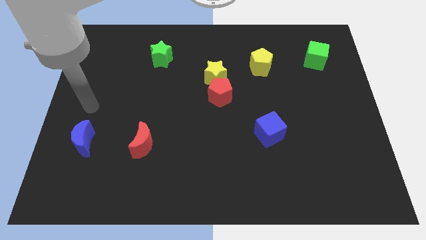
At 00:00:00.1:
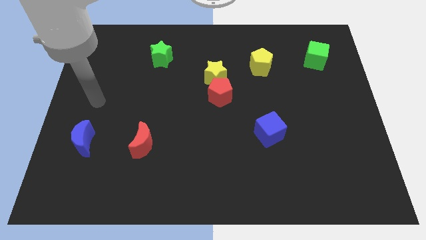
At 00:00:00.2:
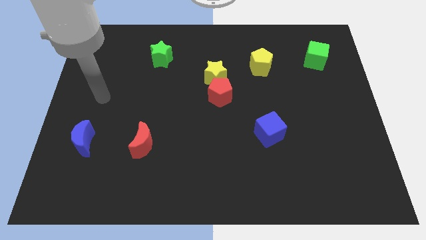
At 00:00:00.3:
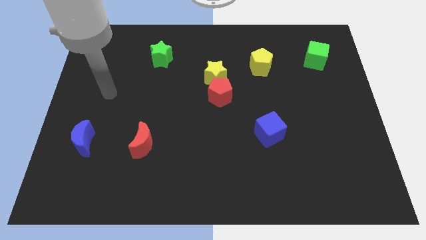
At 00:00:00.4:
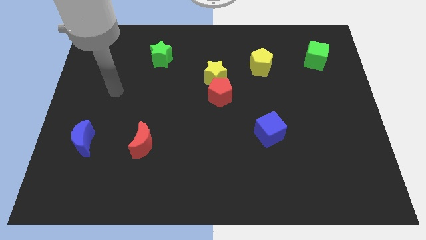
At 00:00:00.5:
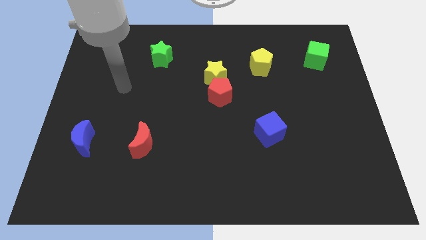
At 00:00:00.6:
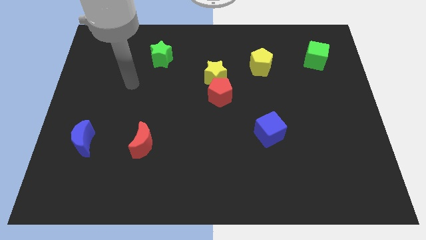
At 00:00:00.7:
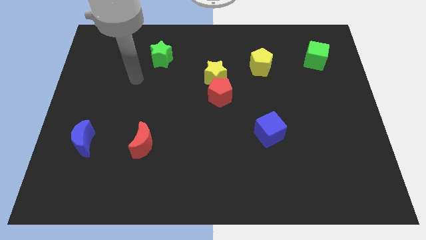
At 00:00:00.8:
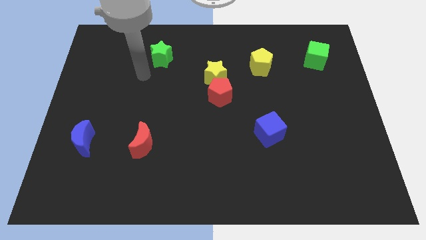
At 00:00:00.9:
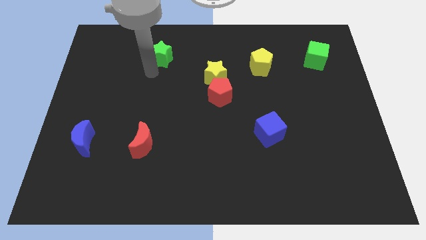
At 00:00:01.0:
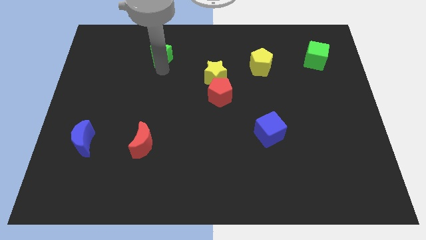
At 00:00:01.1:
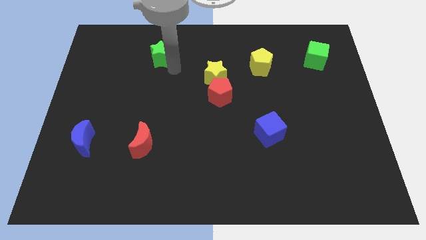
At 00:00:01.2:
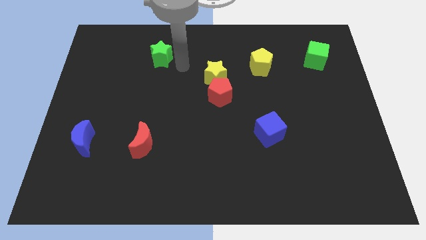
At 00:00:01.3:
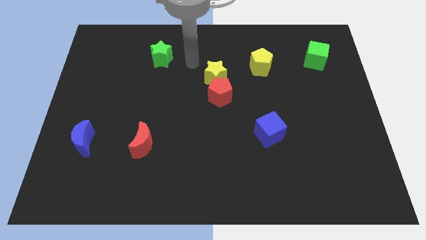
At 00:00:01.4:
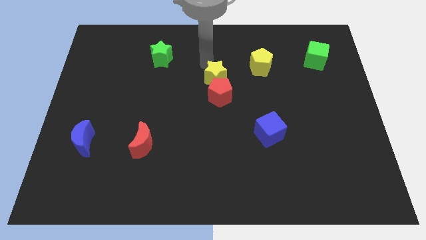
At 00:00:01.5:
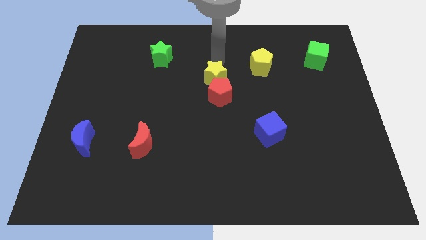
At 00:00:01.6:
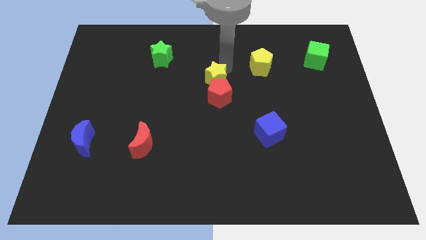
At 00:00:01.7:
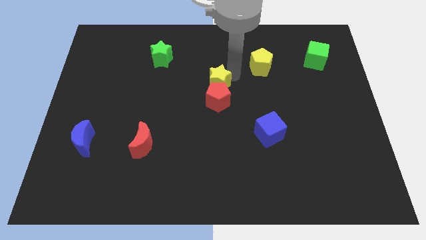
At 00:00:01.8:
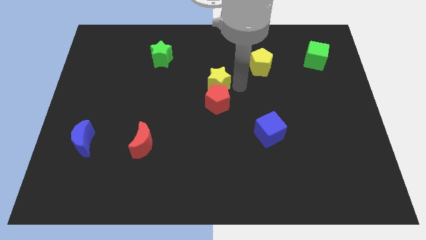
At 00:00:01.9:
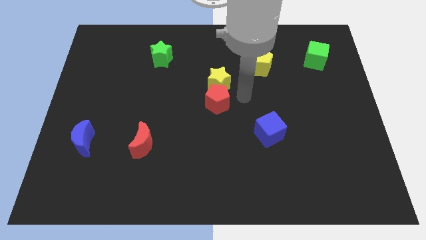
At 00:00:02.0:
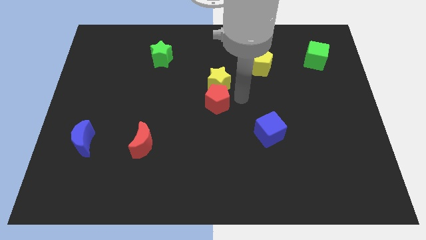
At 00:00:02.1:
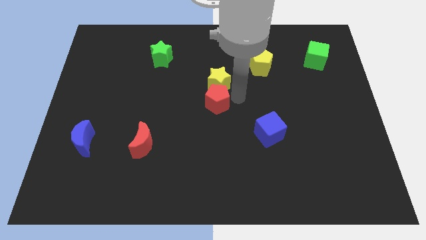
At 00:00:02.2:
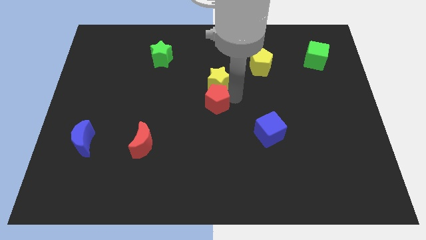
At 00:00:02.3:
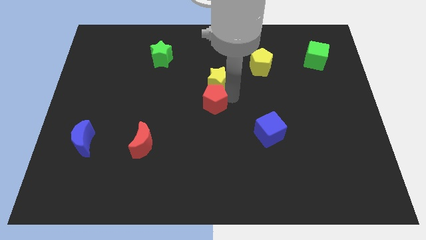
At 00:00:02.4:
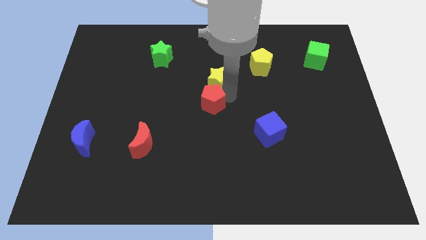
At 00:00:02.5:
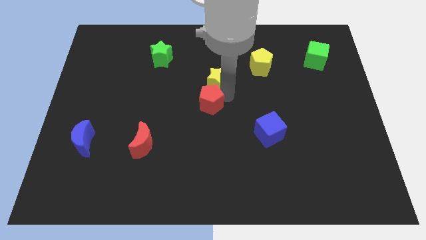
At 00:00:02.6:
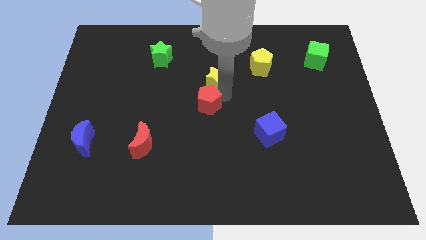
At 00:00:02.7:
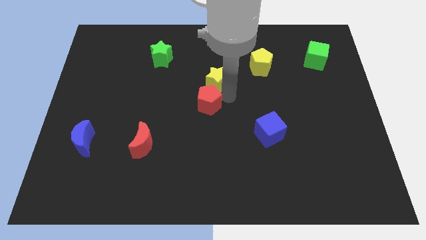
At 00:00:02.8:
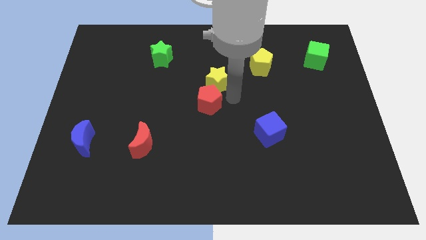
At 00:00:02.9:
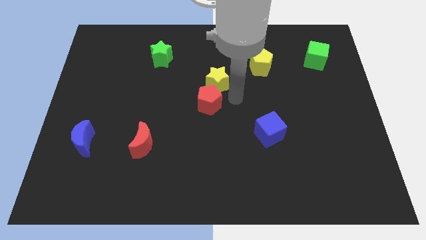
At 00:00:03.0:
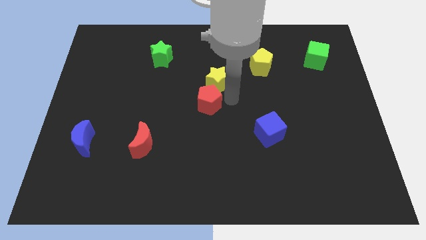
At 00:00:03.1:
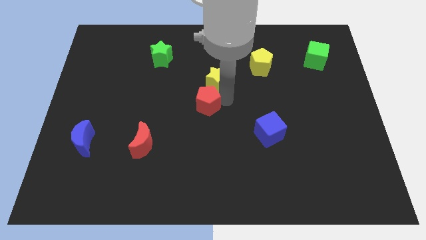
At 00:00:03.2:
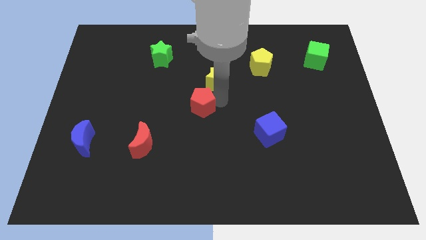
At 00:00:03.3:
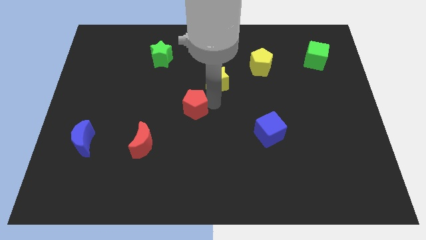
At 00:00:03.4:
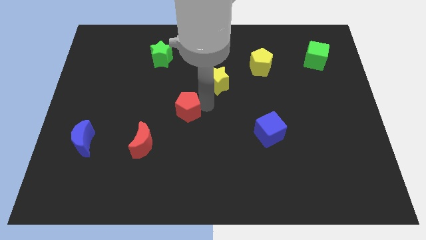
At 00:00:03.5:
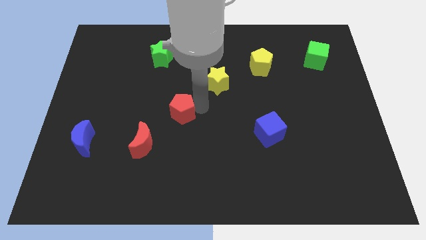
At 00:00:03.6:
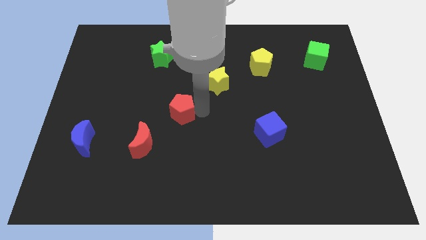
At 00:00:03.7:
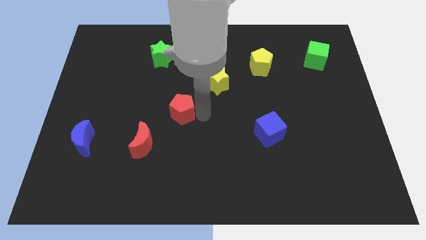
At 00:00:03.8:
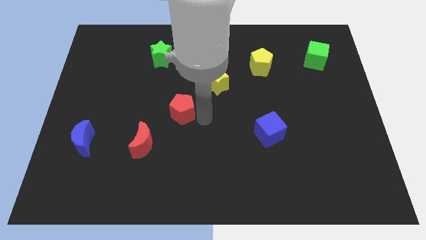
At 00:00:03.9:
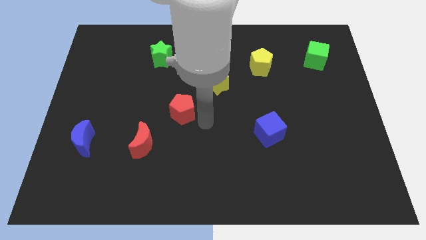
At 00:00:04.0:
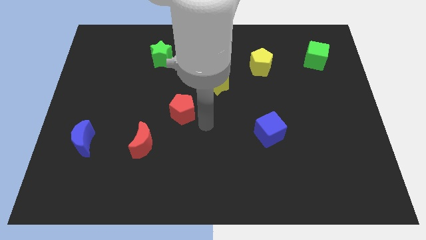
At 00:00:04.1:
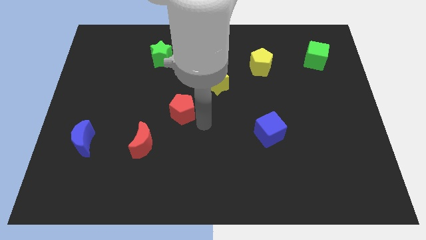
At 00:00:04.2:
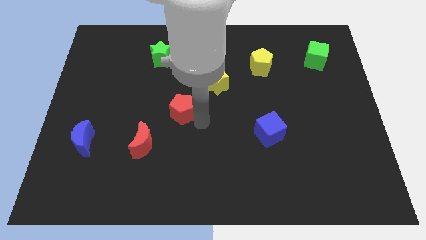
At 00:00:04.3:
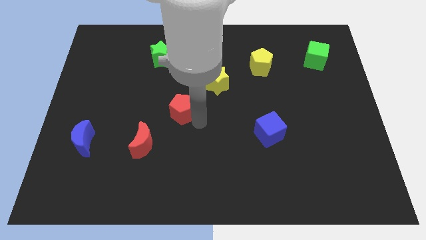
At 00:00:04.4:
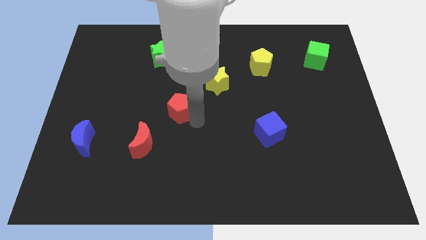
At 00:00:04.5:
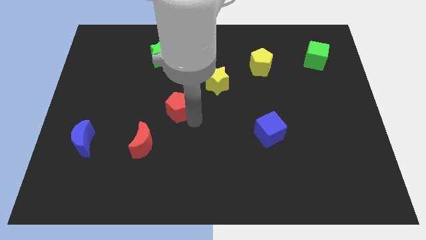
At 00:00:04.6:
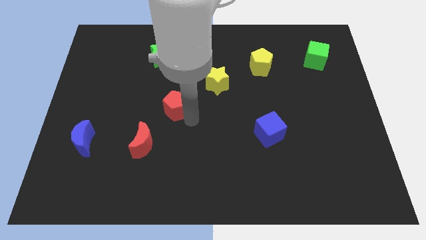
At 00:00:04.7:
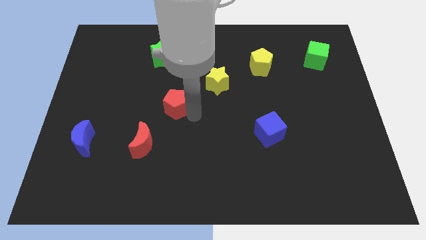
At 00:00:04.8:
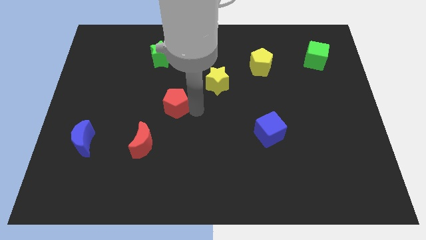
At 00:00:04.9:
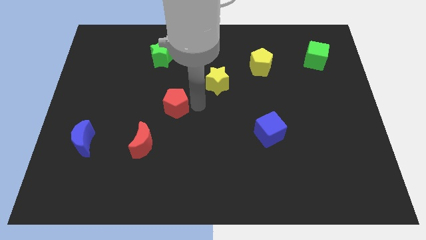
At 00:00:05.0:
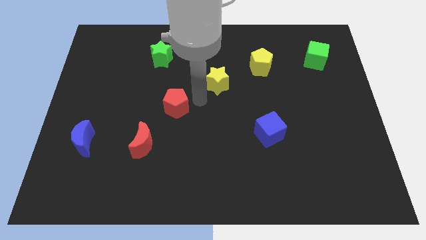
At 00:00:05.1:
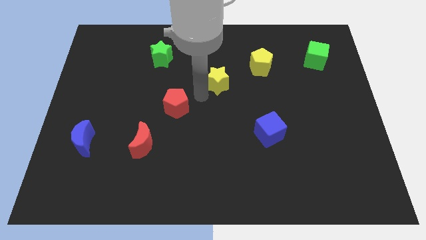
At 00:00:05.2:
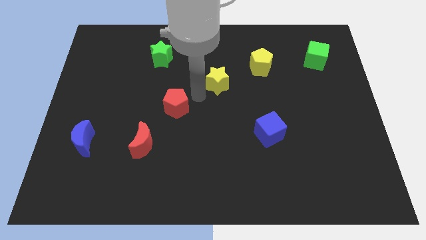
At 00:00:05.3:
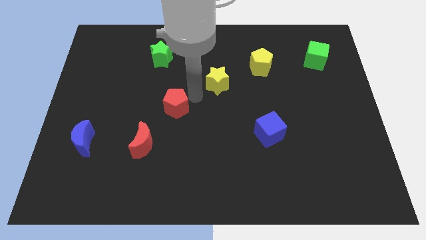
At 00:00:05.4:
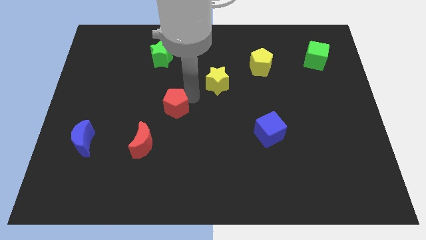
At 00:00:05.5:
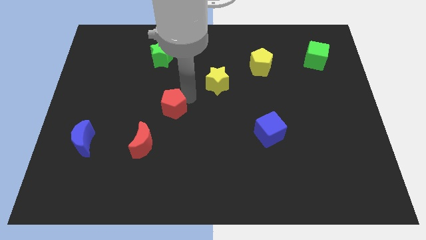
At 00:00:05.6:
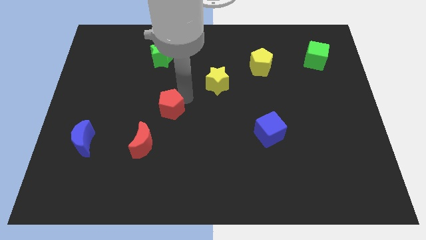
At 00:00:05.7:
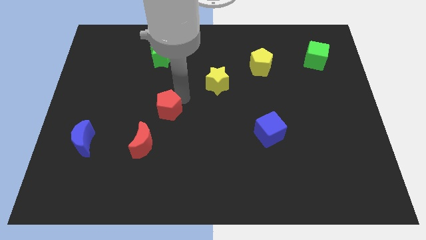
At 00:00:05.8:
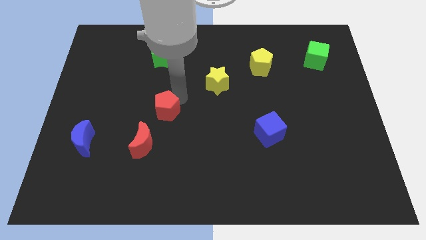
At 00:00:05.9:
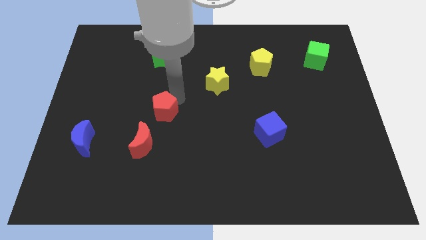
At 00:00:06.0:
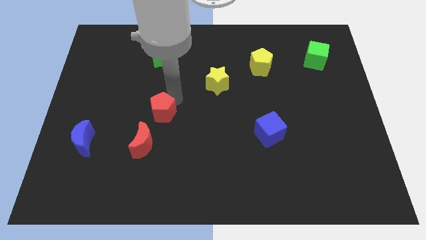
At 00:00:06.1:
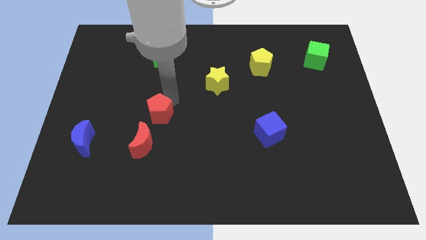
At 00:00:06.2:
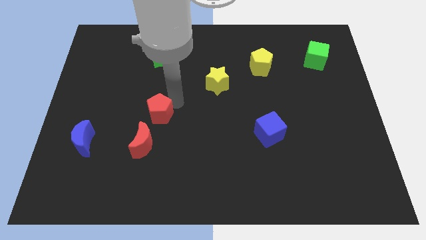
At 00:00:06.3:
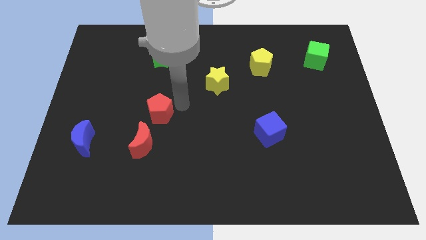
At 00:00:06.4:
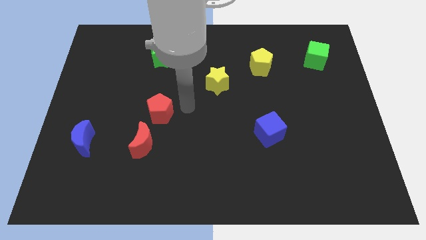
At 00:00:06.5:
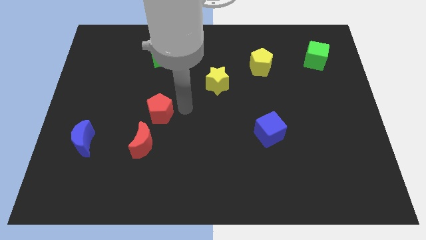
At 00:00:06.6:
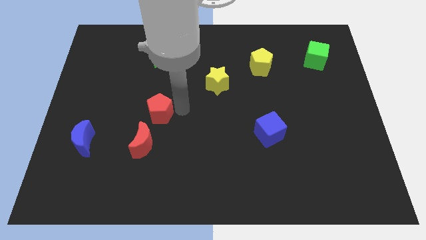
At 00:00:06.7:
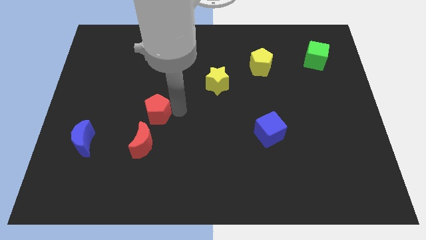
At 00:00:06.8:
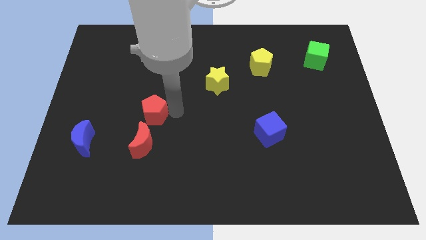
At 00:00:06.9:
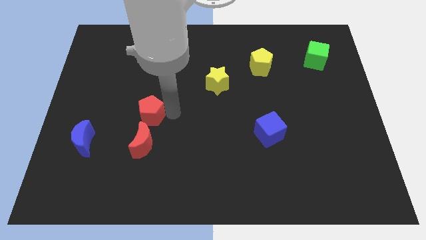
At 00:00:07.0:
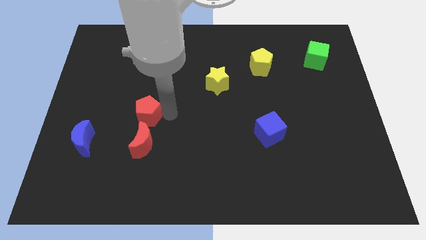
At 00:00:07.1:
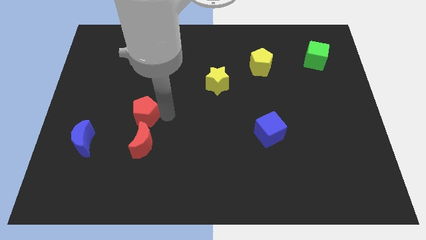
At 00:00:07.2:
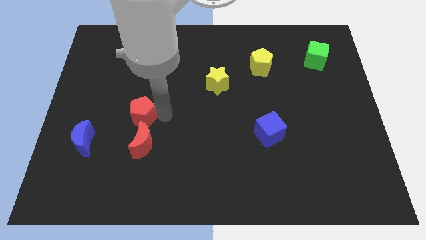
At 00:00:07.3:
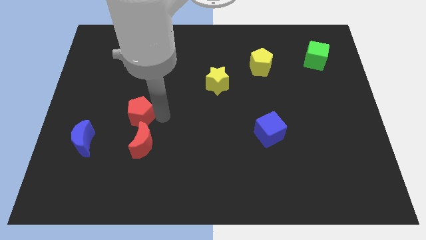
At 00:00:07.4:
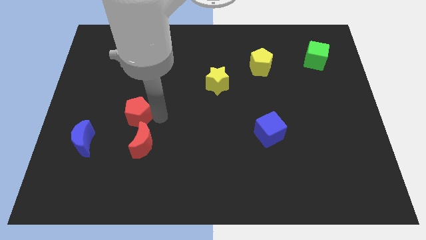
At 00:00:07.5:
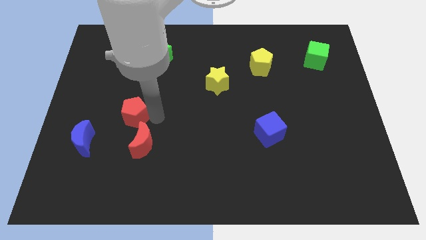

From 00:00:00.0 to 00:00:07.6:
push the red pentagon diagonally up and to the right of the blue moon
